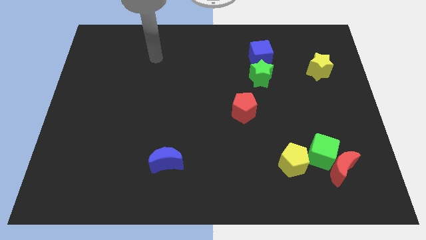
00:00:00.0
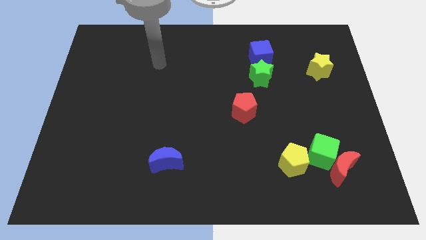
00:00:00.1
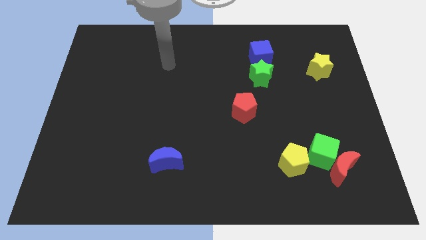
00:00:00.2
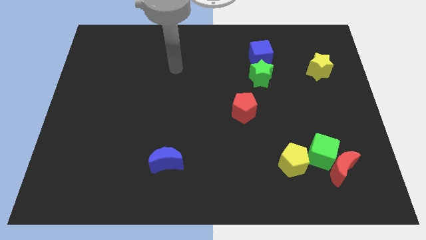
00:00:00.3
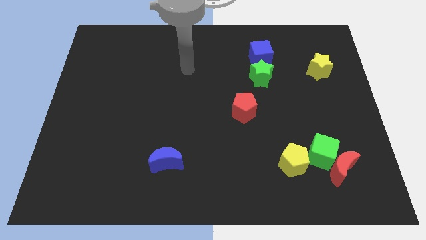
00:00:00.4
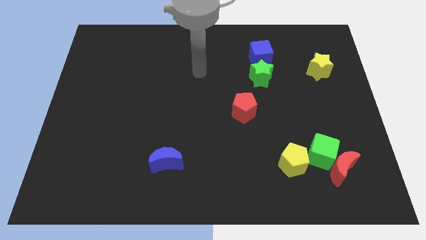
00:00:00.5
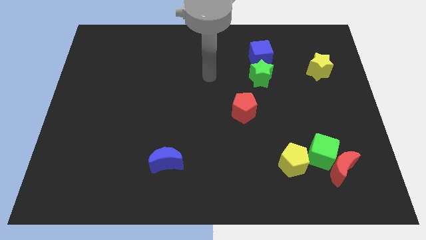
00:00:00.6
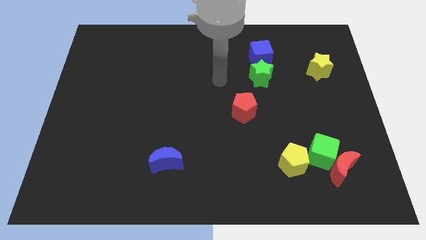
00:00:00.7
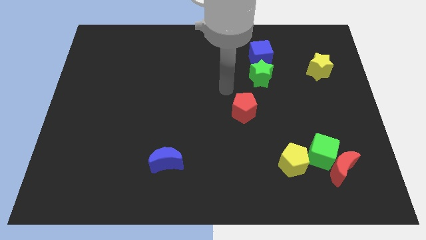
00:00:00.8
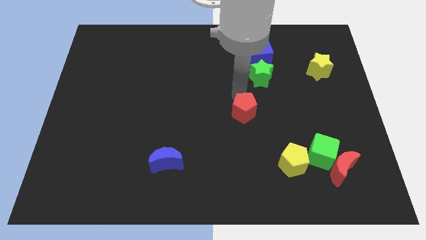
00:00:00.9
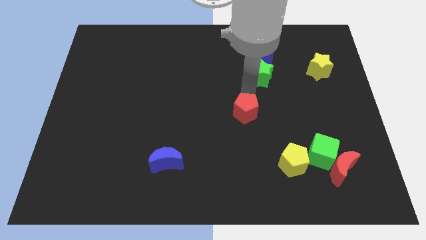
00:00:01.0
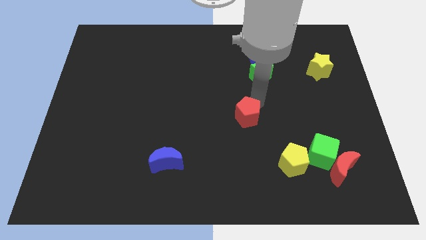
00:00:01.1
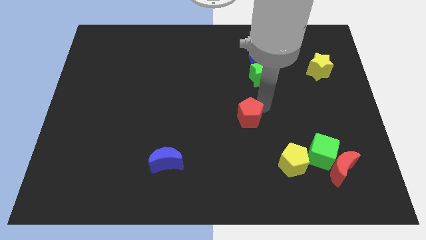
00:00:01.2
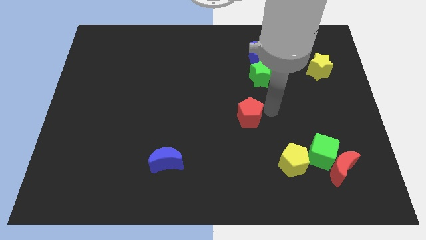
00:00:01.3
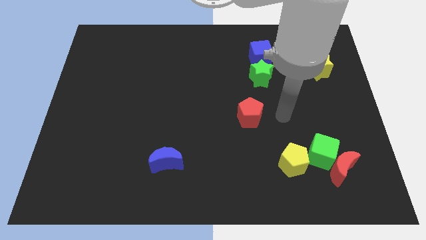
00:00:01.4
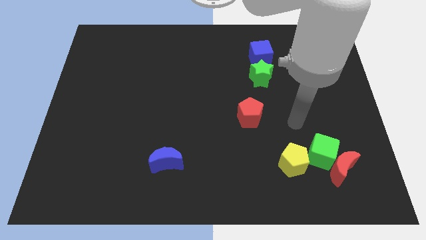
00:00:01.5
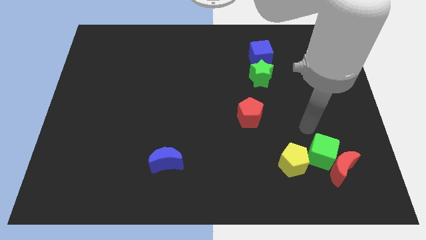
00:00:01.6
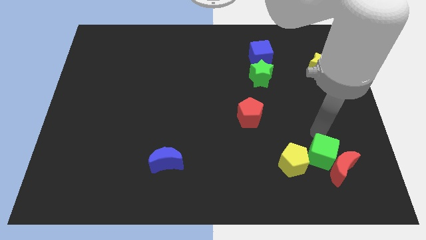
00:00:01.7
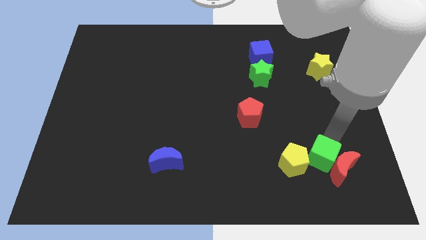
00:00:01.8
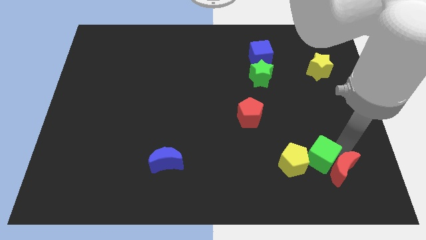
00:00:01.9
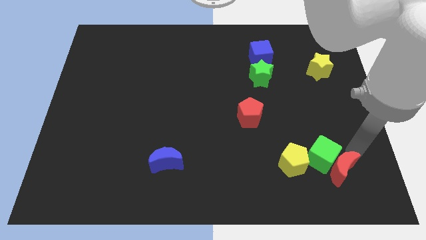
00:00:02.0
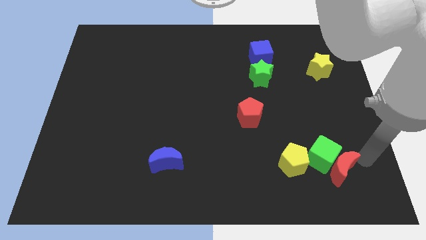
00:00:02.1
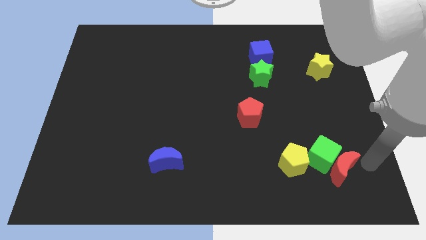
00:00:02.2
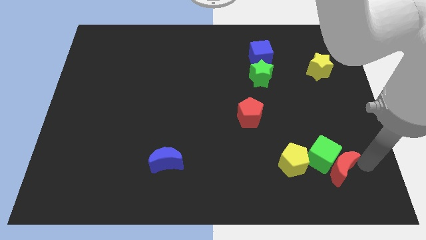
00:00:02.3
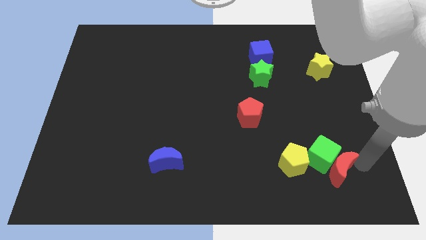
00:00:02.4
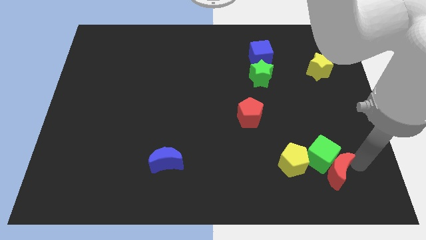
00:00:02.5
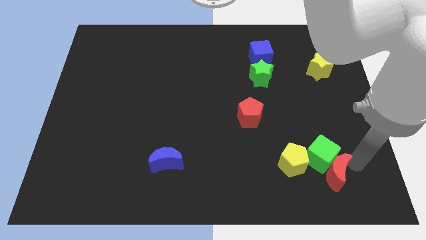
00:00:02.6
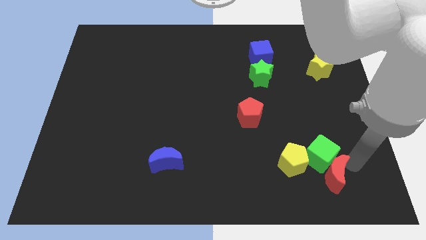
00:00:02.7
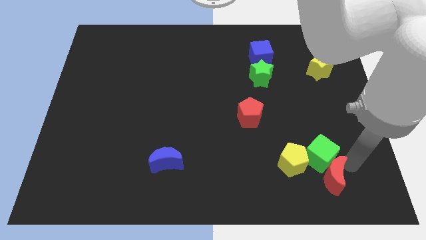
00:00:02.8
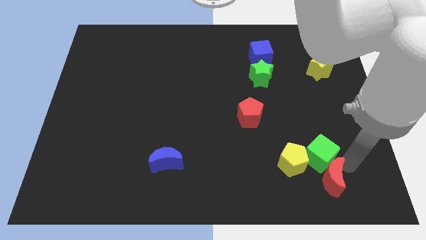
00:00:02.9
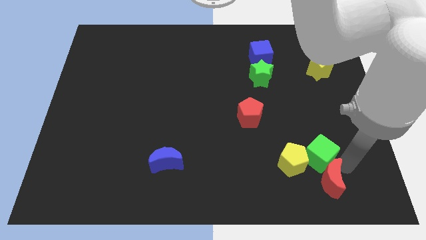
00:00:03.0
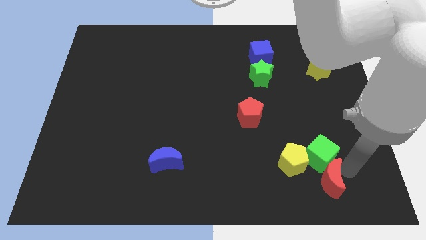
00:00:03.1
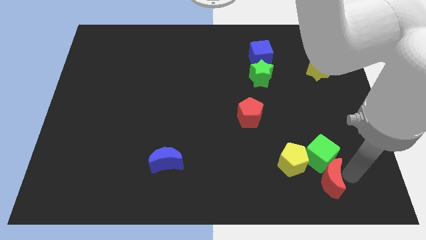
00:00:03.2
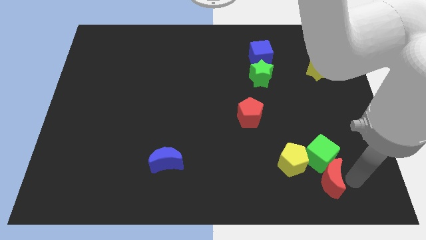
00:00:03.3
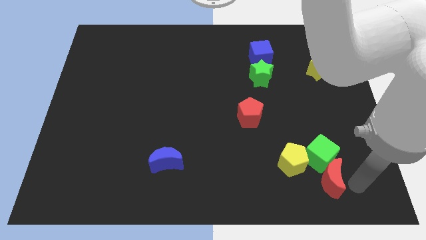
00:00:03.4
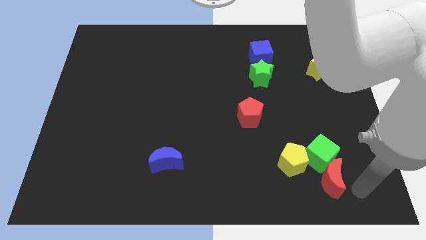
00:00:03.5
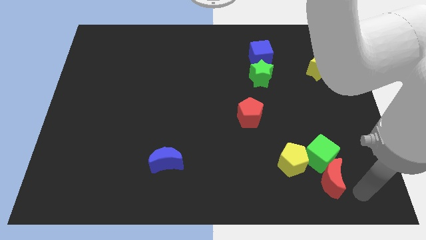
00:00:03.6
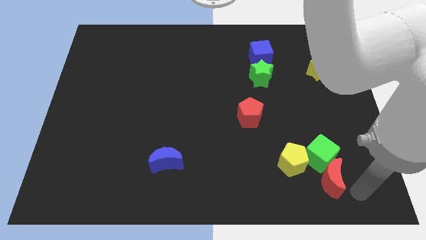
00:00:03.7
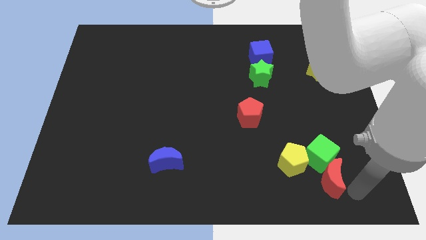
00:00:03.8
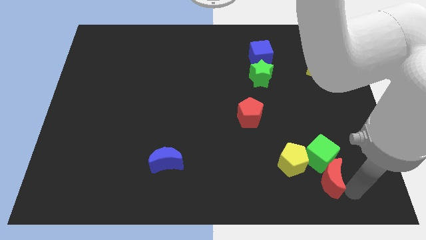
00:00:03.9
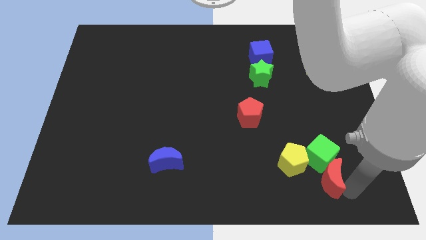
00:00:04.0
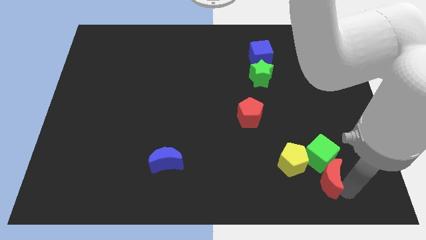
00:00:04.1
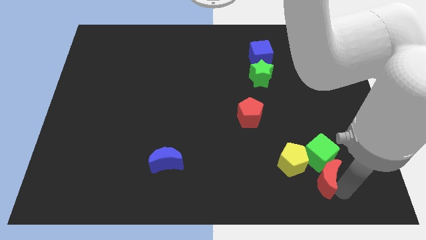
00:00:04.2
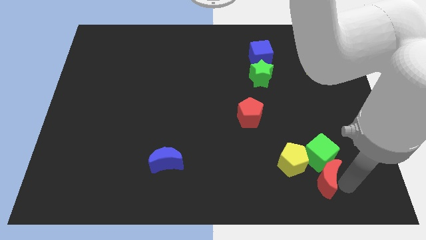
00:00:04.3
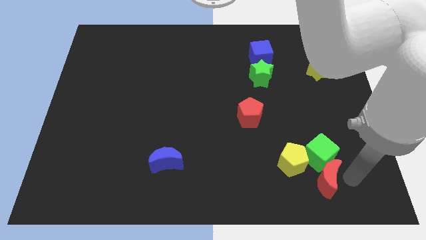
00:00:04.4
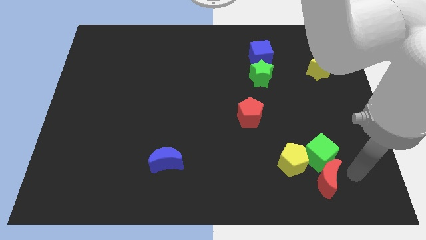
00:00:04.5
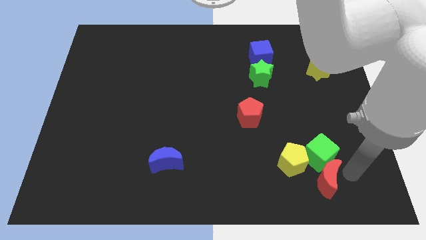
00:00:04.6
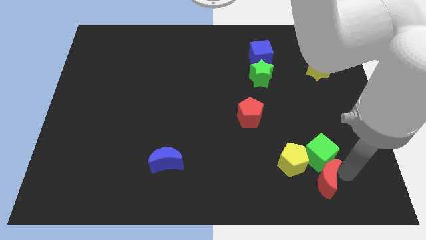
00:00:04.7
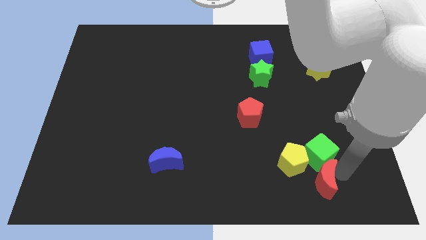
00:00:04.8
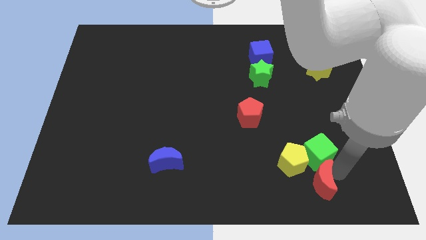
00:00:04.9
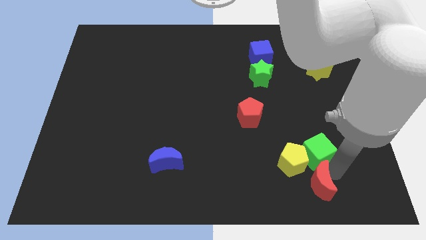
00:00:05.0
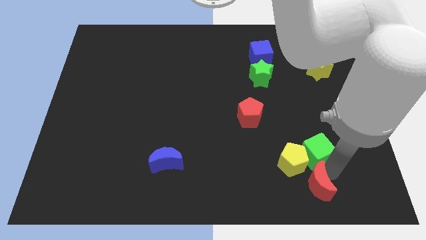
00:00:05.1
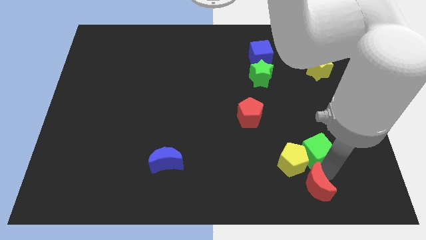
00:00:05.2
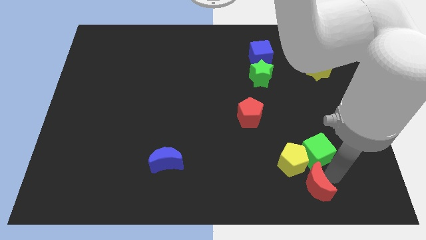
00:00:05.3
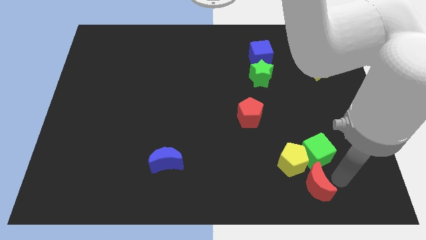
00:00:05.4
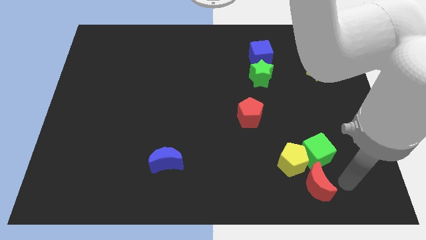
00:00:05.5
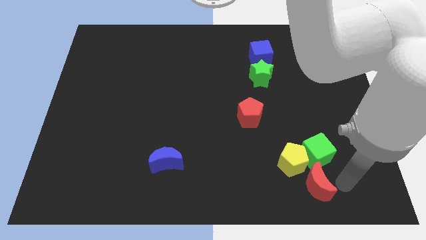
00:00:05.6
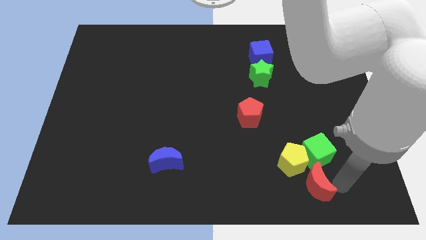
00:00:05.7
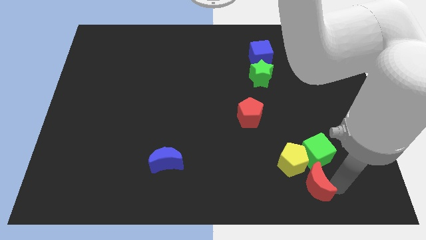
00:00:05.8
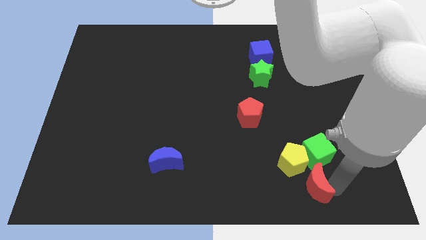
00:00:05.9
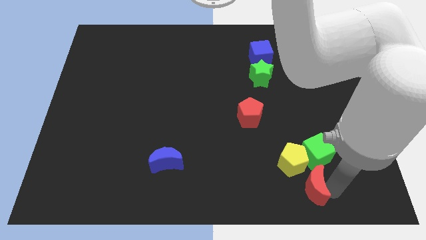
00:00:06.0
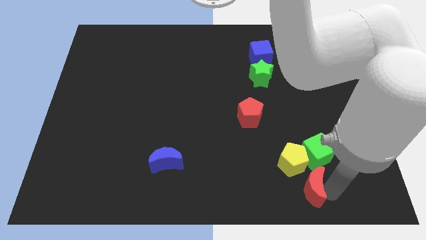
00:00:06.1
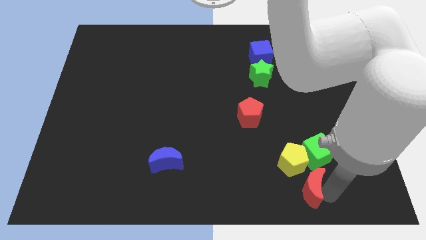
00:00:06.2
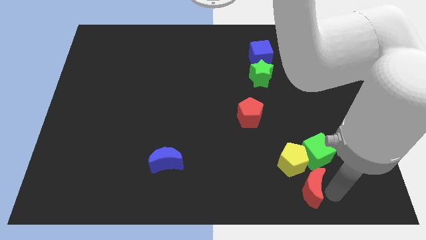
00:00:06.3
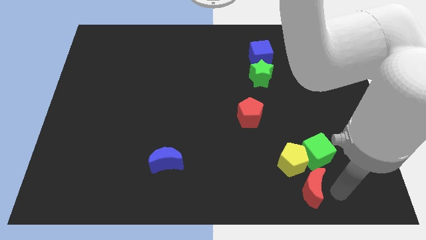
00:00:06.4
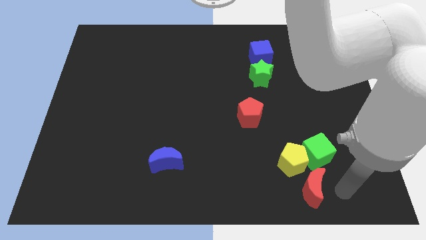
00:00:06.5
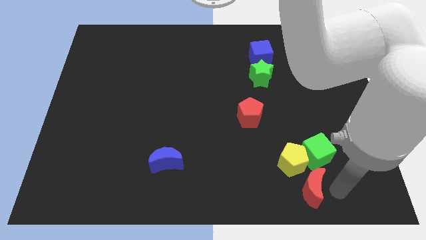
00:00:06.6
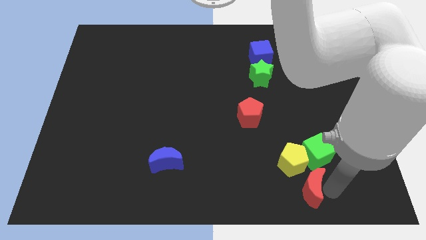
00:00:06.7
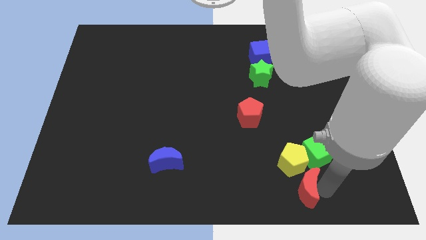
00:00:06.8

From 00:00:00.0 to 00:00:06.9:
push the red moon a little bit left

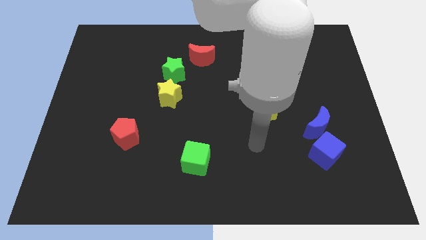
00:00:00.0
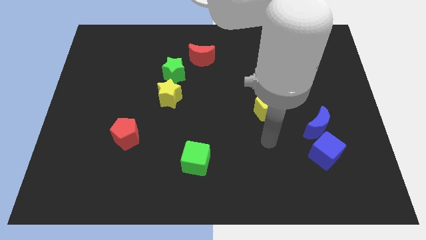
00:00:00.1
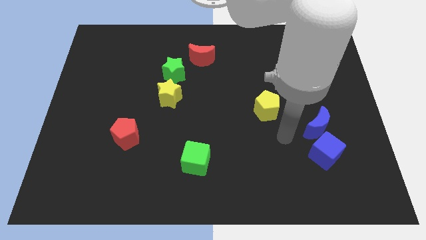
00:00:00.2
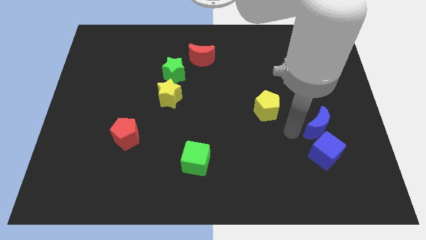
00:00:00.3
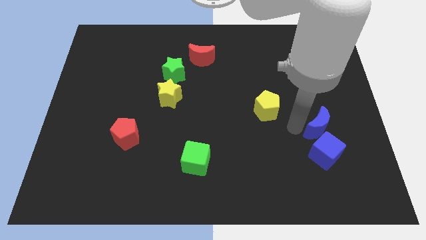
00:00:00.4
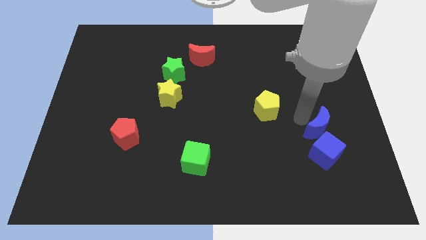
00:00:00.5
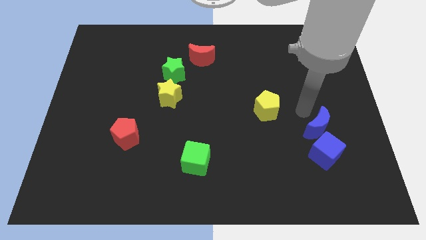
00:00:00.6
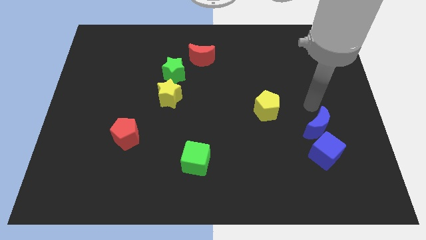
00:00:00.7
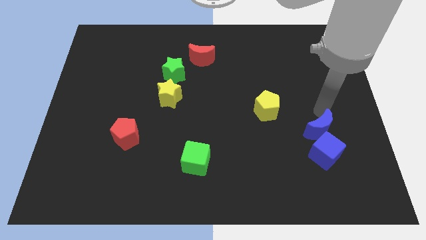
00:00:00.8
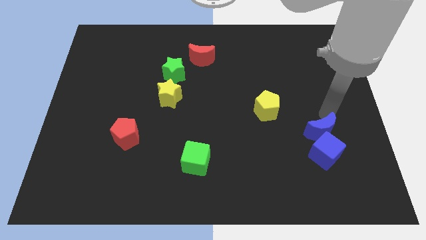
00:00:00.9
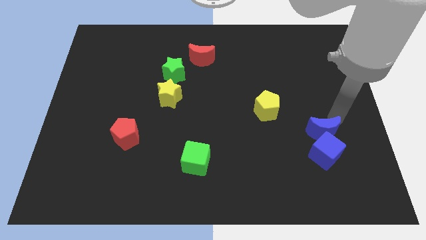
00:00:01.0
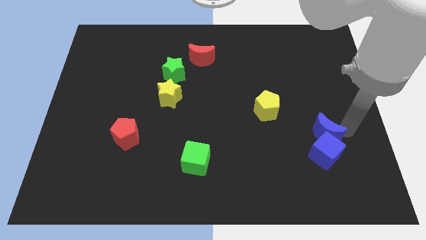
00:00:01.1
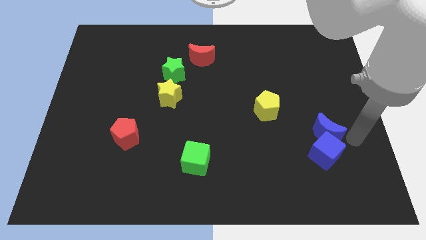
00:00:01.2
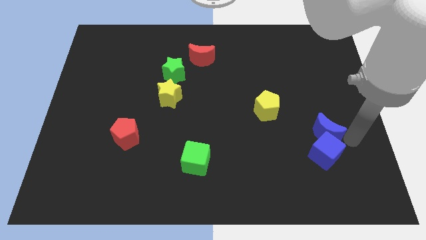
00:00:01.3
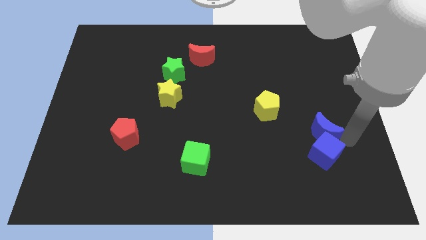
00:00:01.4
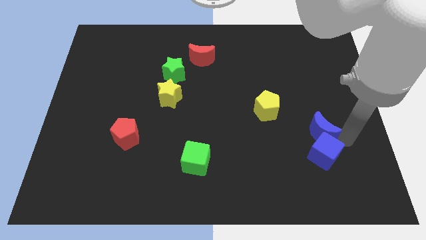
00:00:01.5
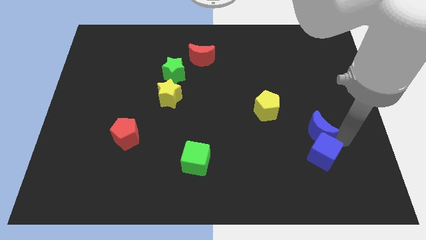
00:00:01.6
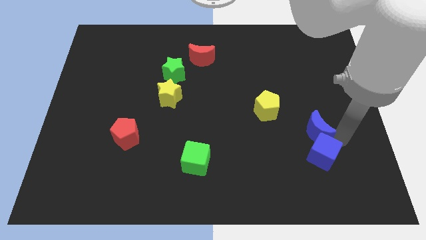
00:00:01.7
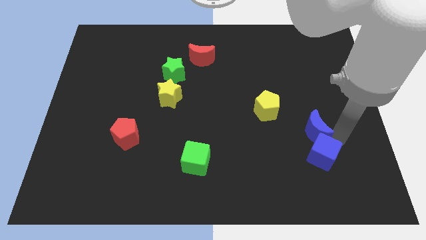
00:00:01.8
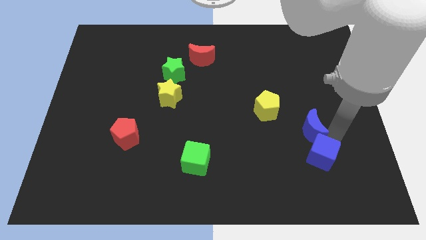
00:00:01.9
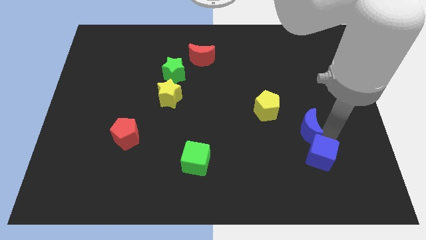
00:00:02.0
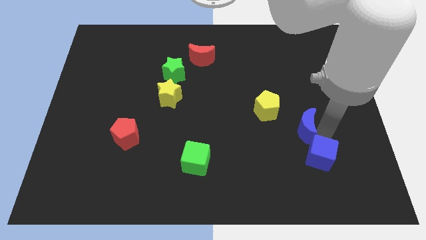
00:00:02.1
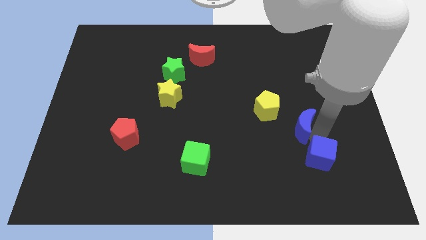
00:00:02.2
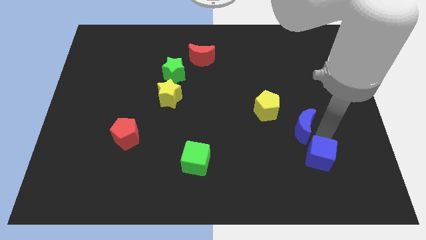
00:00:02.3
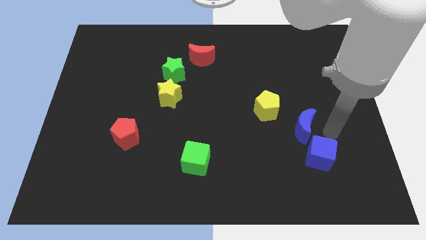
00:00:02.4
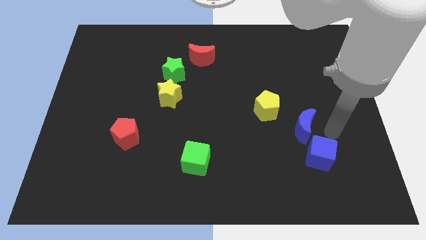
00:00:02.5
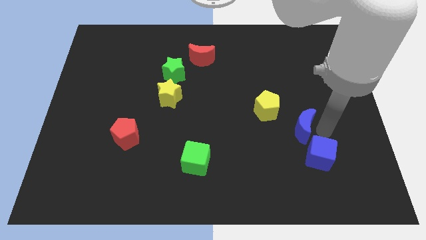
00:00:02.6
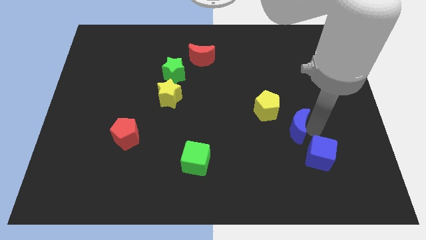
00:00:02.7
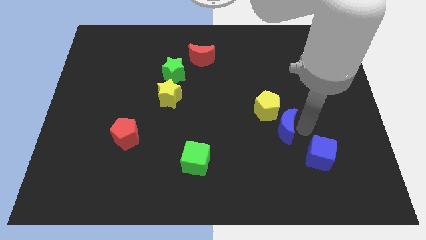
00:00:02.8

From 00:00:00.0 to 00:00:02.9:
push the blue moon left slightly
